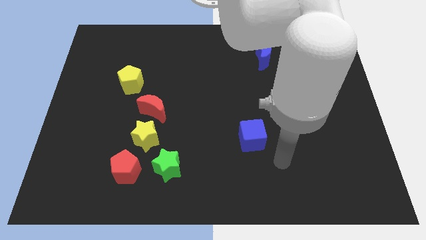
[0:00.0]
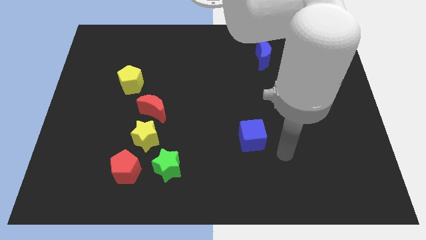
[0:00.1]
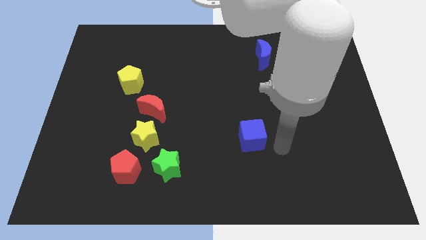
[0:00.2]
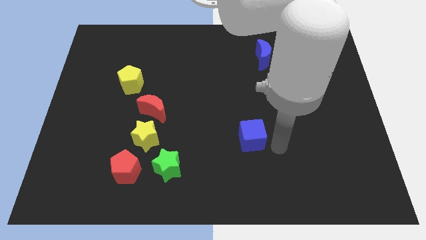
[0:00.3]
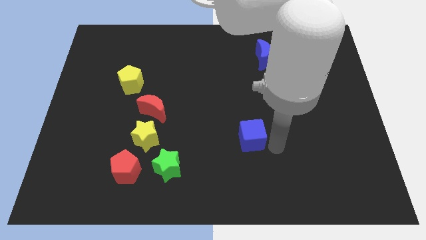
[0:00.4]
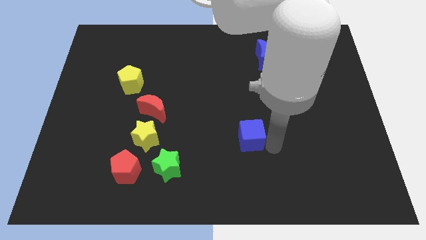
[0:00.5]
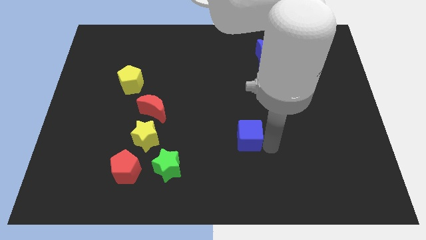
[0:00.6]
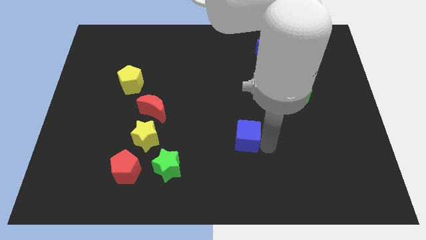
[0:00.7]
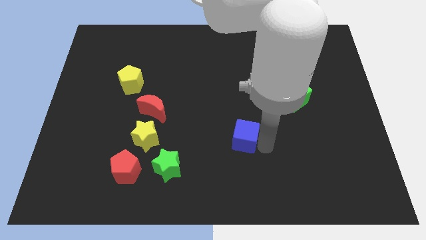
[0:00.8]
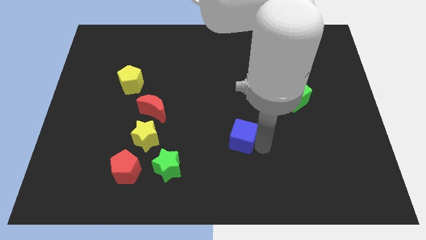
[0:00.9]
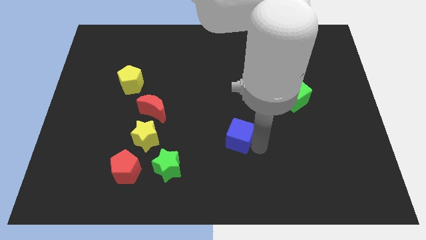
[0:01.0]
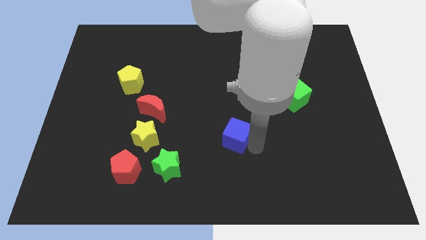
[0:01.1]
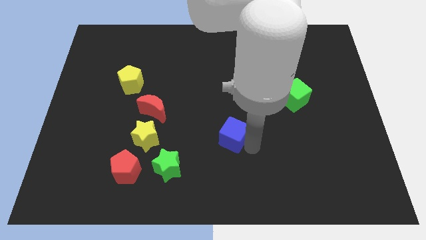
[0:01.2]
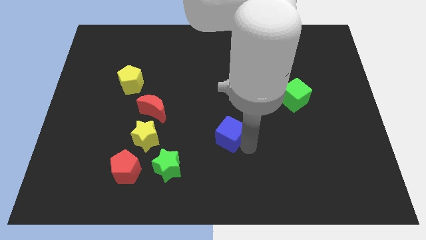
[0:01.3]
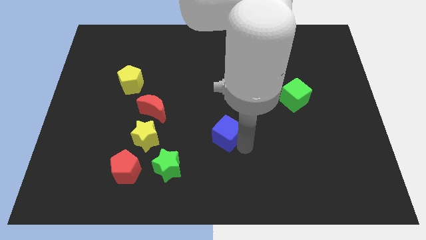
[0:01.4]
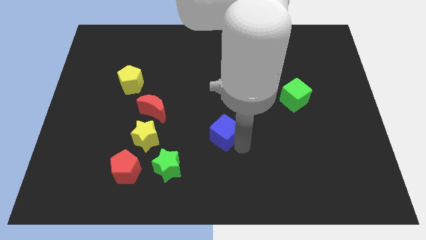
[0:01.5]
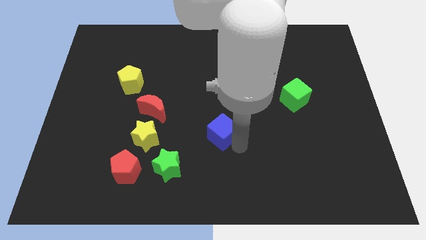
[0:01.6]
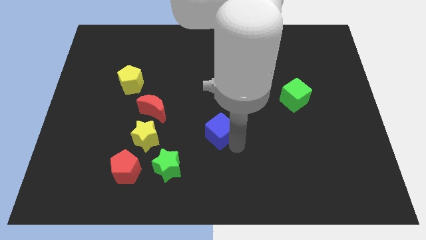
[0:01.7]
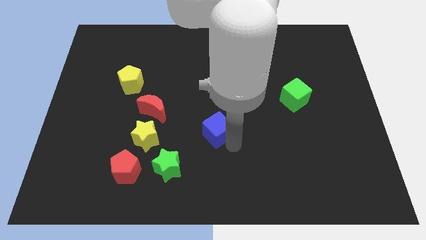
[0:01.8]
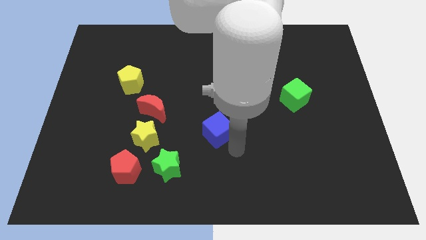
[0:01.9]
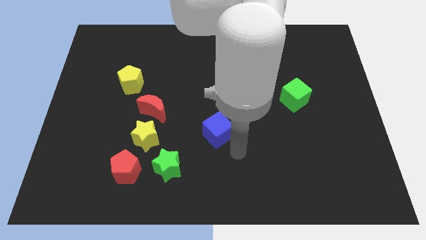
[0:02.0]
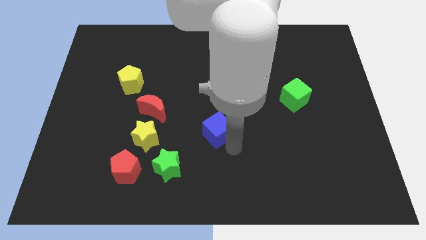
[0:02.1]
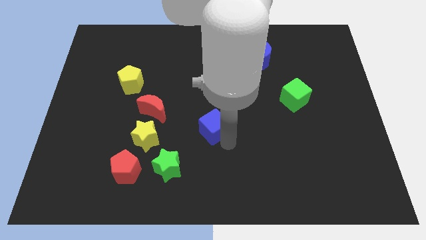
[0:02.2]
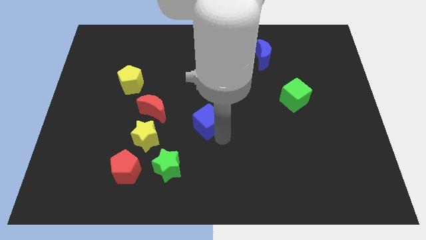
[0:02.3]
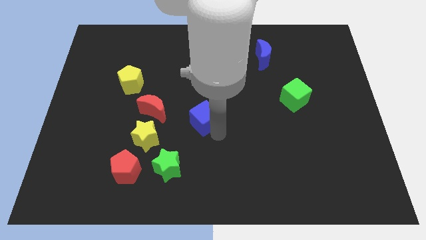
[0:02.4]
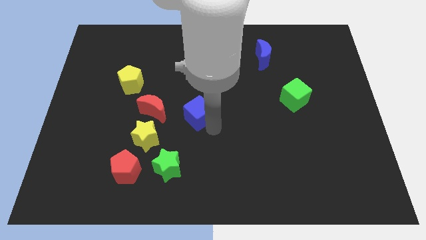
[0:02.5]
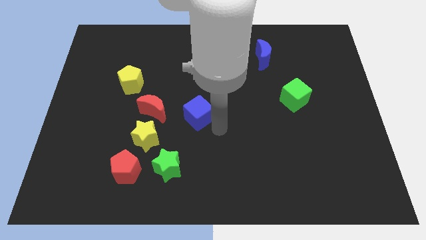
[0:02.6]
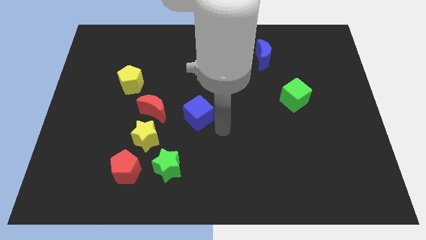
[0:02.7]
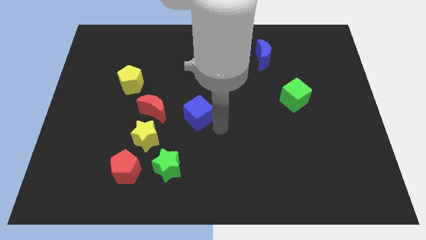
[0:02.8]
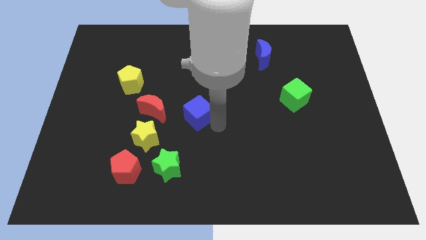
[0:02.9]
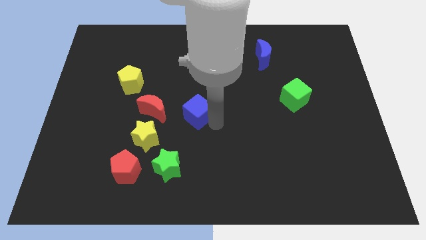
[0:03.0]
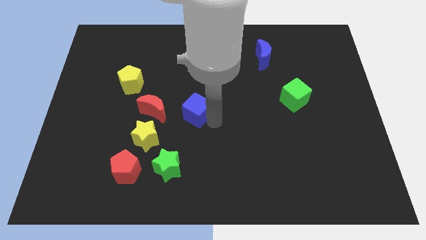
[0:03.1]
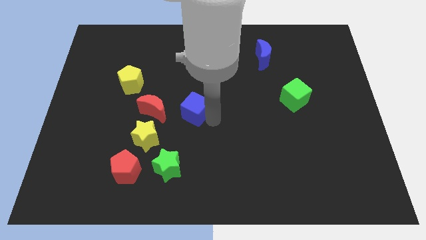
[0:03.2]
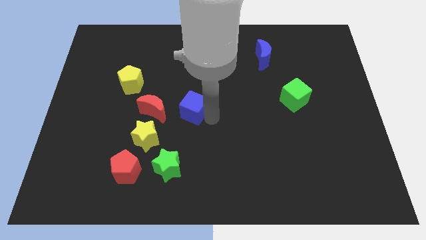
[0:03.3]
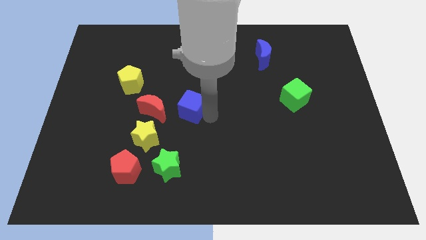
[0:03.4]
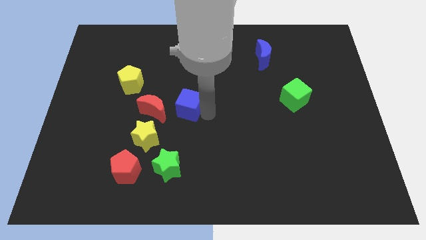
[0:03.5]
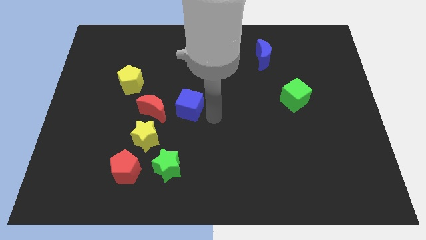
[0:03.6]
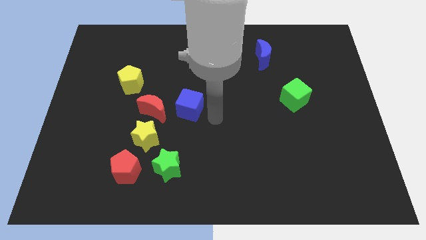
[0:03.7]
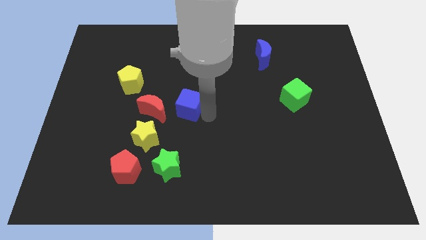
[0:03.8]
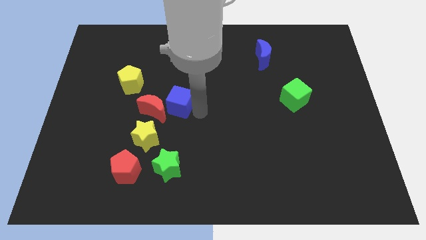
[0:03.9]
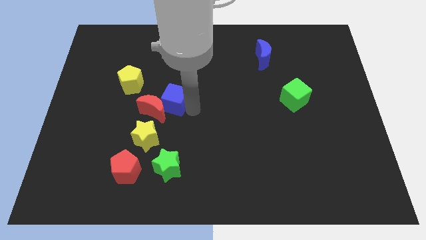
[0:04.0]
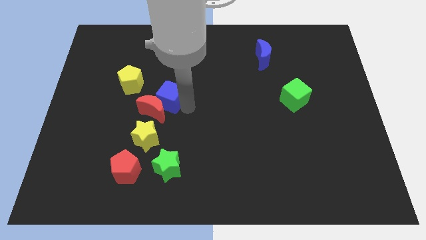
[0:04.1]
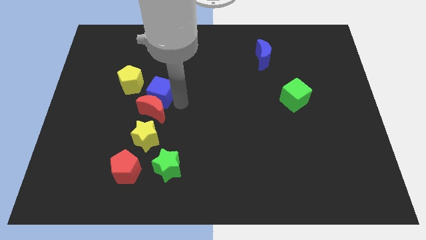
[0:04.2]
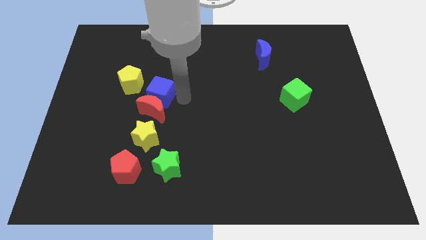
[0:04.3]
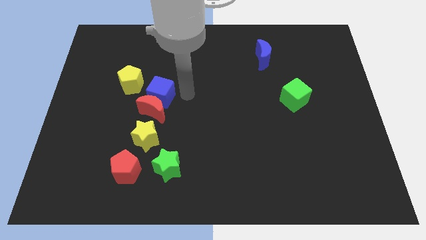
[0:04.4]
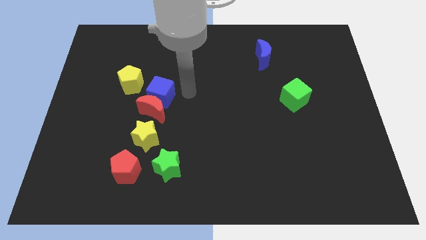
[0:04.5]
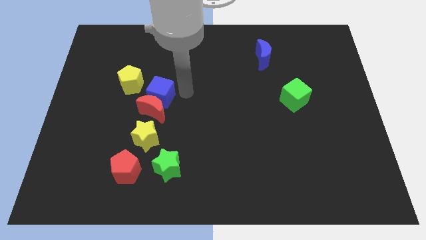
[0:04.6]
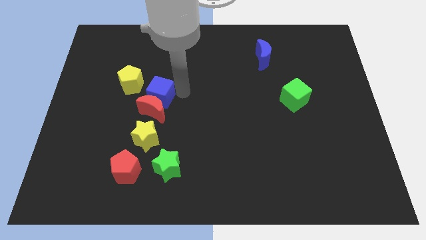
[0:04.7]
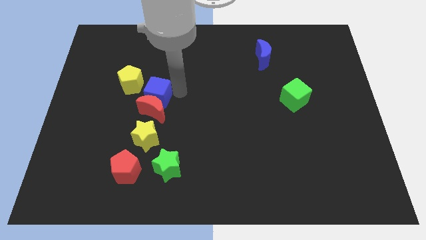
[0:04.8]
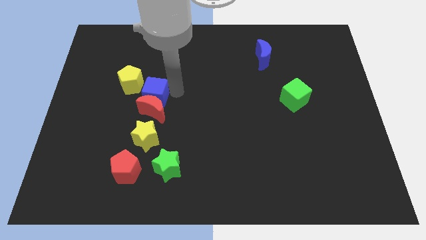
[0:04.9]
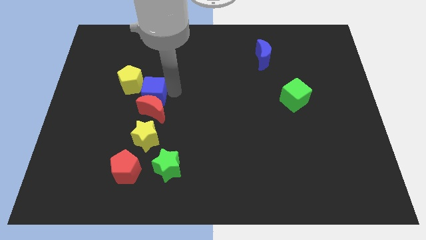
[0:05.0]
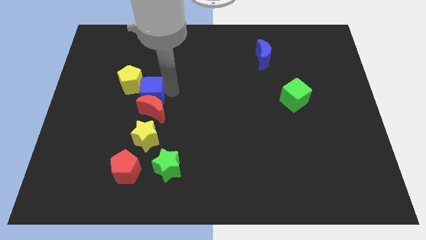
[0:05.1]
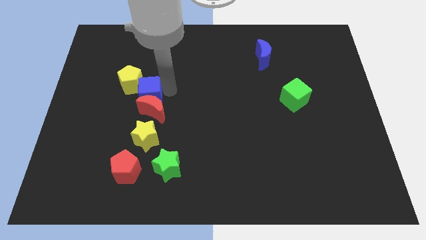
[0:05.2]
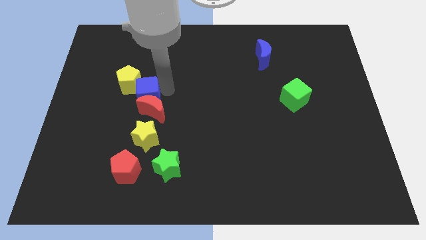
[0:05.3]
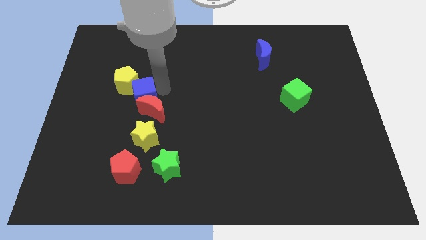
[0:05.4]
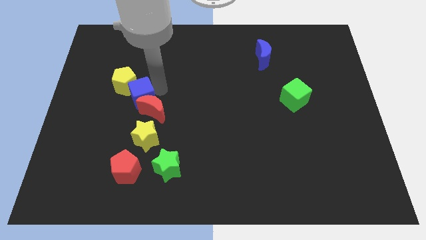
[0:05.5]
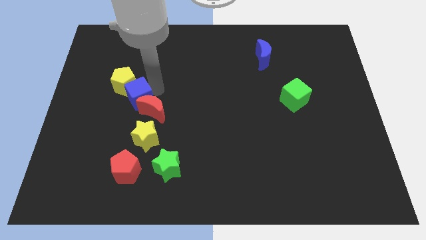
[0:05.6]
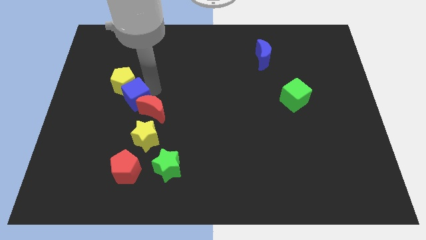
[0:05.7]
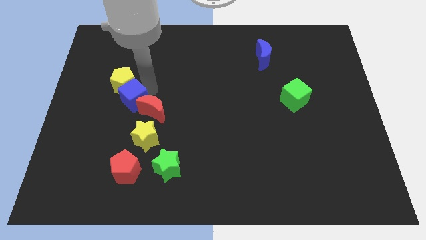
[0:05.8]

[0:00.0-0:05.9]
slide the blue cube left

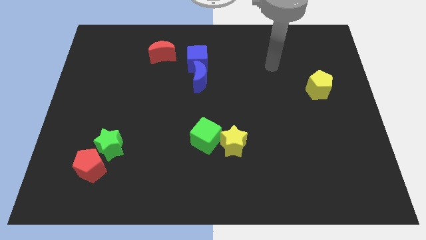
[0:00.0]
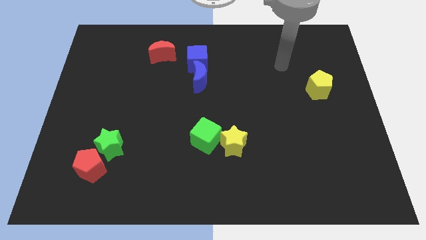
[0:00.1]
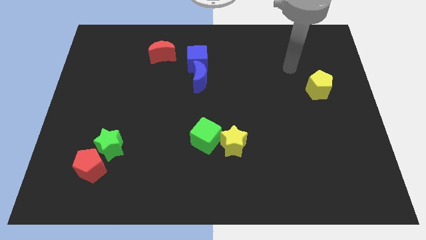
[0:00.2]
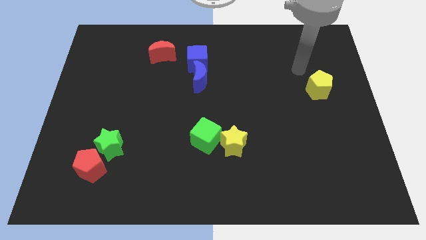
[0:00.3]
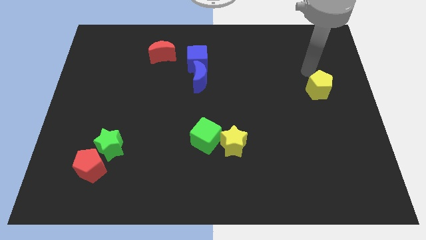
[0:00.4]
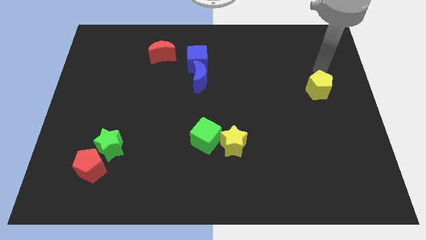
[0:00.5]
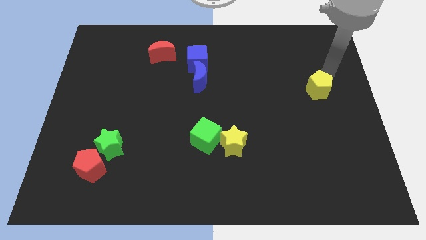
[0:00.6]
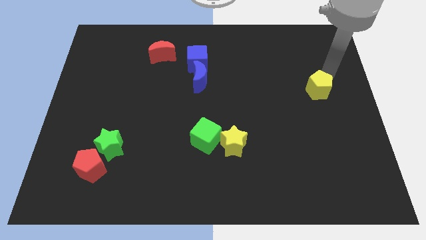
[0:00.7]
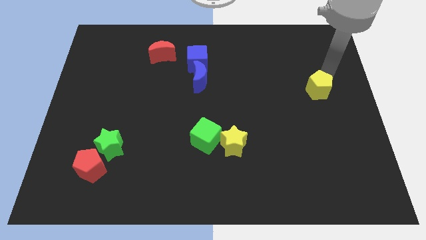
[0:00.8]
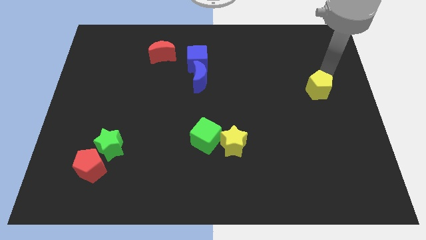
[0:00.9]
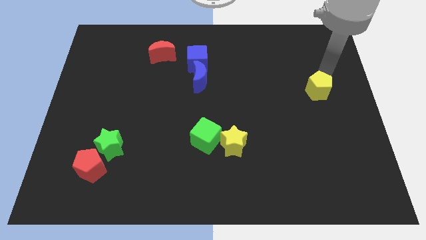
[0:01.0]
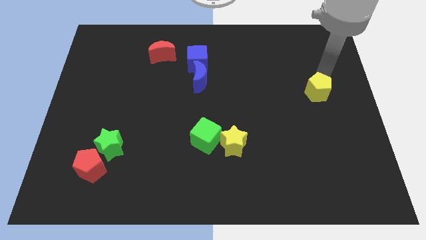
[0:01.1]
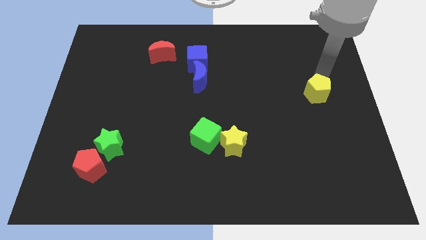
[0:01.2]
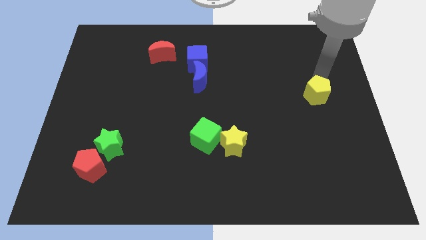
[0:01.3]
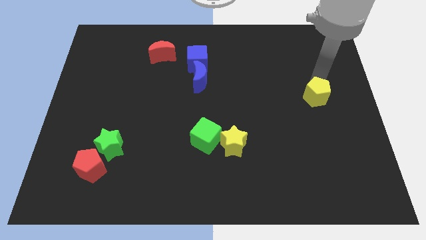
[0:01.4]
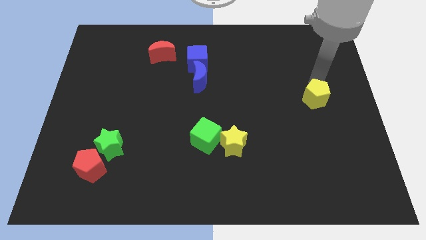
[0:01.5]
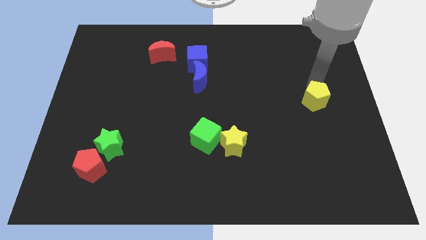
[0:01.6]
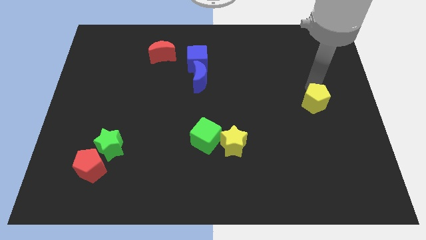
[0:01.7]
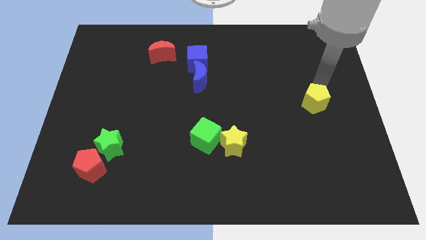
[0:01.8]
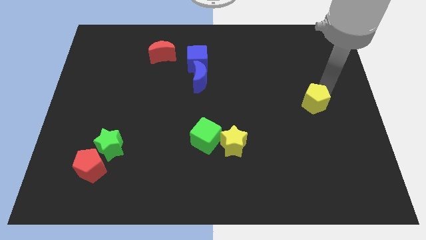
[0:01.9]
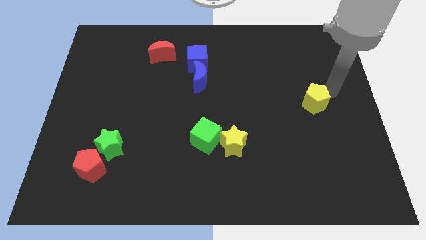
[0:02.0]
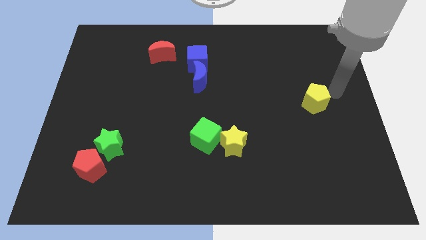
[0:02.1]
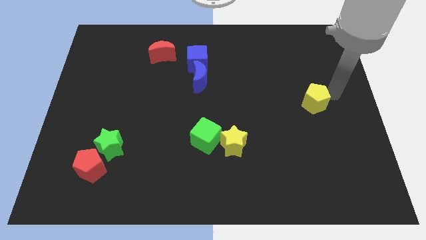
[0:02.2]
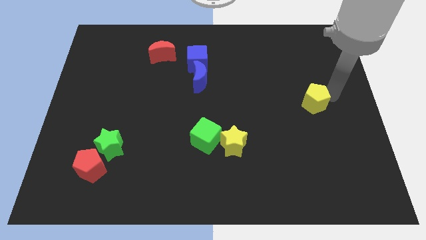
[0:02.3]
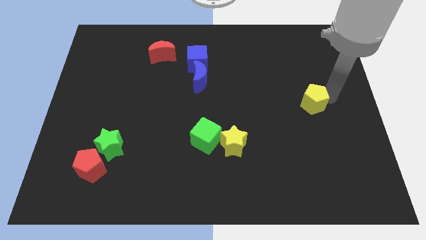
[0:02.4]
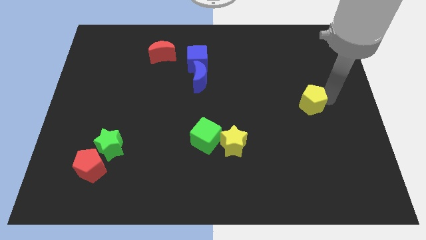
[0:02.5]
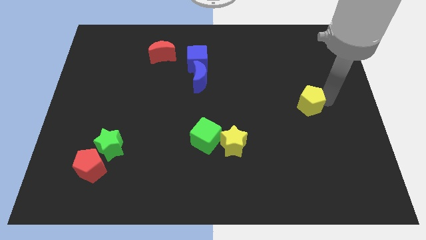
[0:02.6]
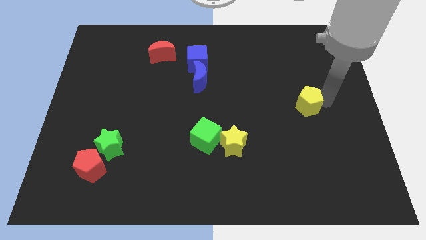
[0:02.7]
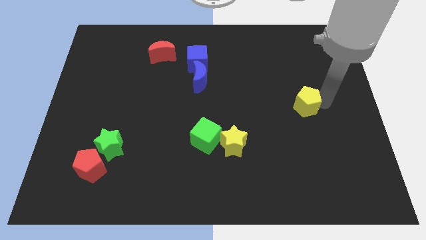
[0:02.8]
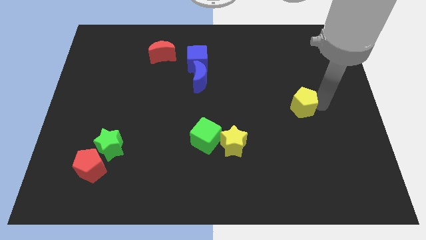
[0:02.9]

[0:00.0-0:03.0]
push the yellow pentagon slightly down and to the left
